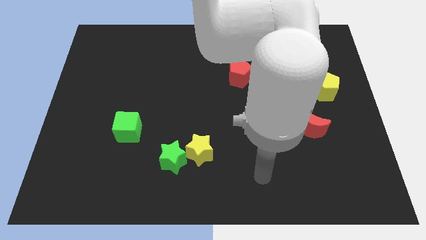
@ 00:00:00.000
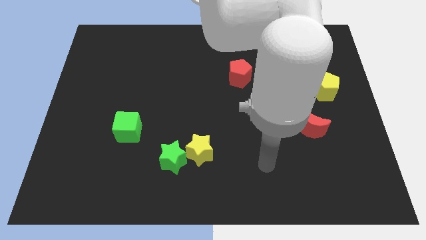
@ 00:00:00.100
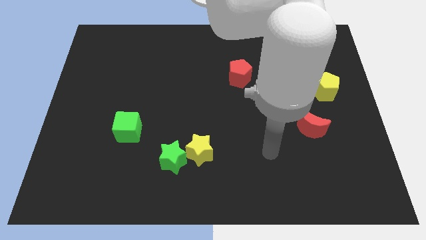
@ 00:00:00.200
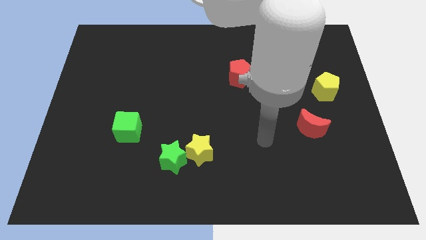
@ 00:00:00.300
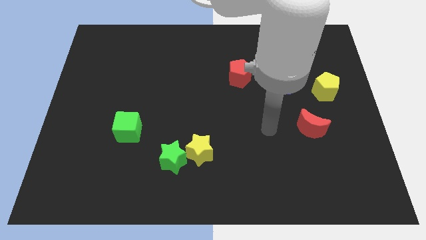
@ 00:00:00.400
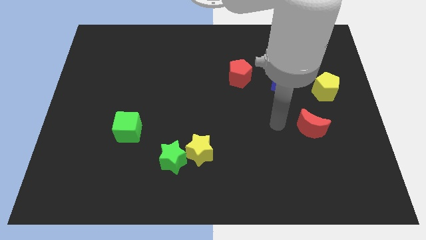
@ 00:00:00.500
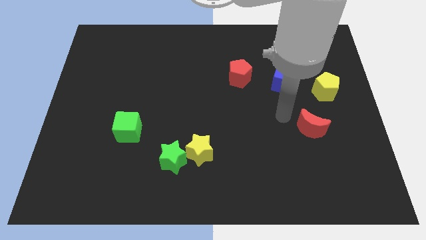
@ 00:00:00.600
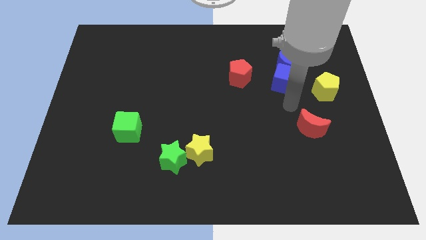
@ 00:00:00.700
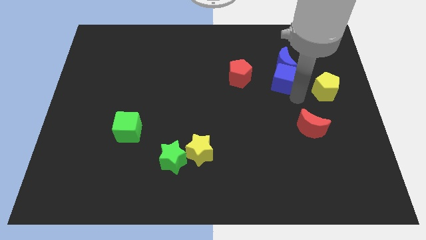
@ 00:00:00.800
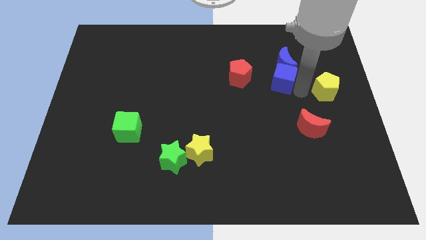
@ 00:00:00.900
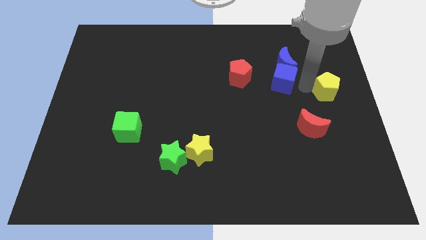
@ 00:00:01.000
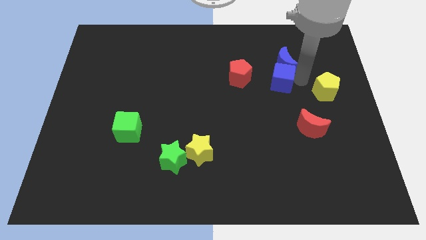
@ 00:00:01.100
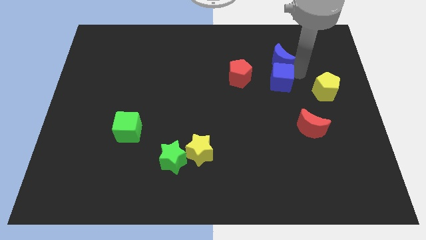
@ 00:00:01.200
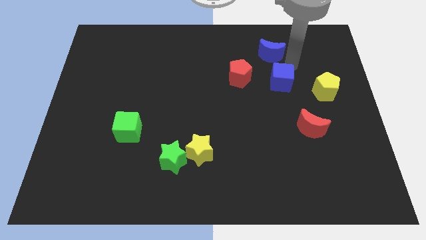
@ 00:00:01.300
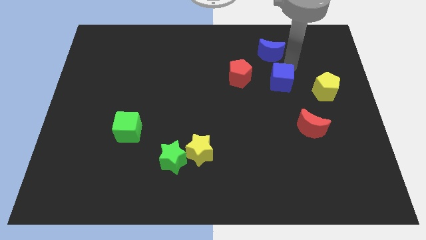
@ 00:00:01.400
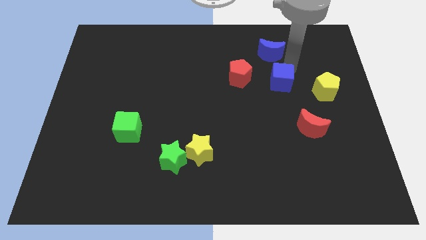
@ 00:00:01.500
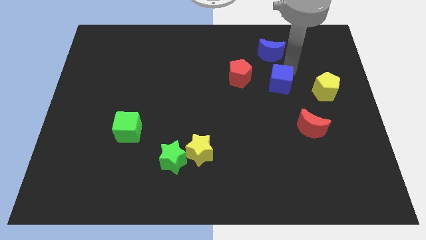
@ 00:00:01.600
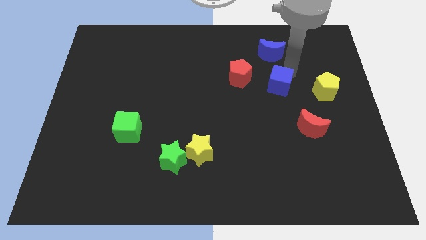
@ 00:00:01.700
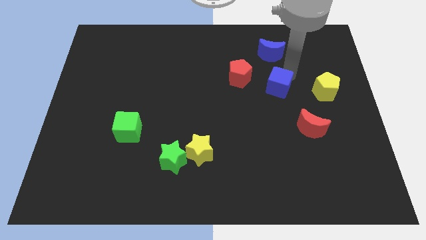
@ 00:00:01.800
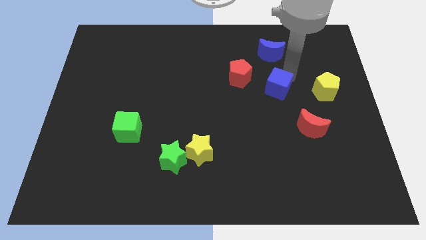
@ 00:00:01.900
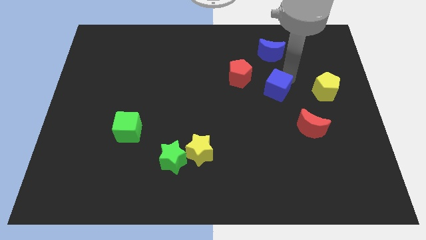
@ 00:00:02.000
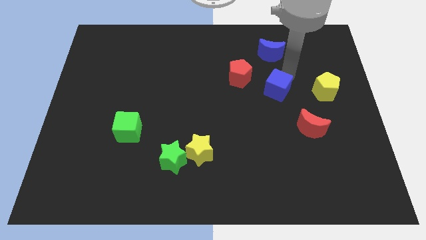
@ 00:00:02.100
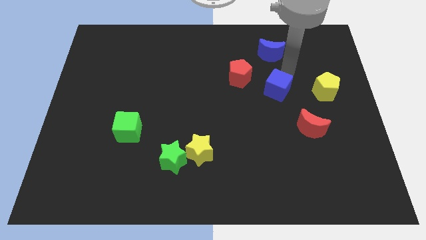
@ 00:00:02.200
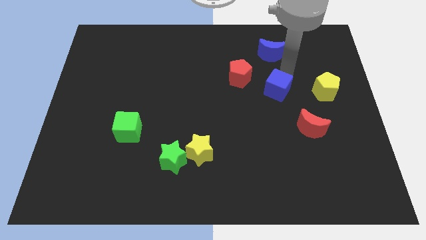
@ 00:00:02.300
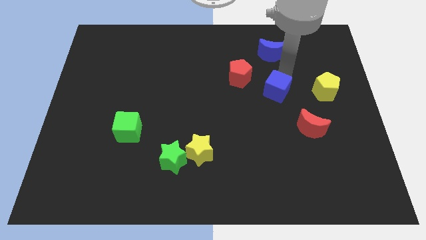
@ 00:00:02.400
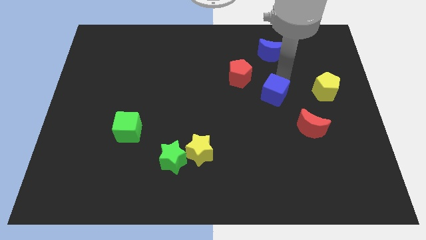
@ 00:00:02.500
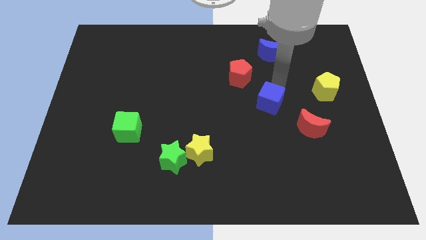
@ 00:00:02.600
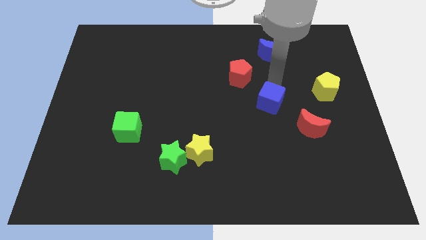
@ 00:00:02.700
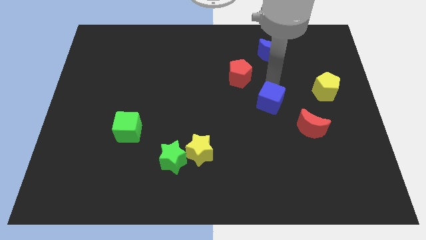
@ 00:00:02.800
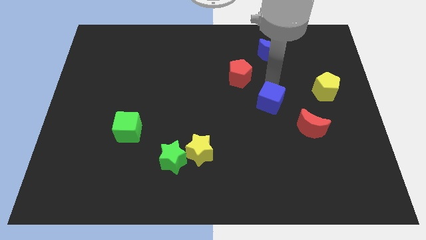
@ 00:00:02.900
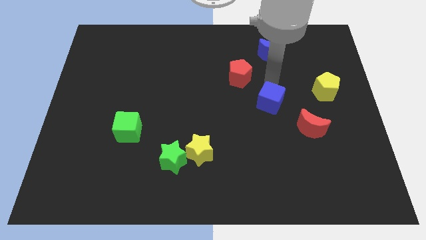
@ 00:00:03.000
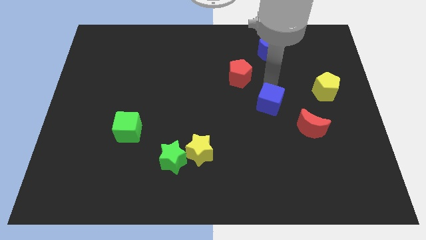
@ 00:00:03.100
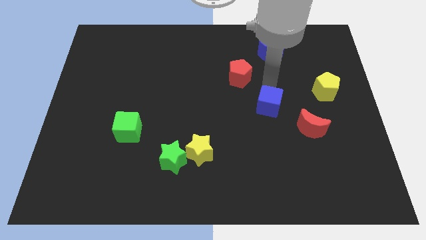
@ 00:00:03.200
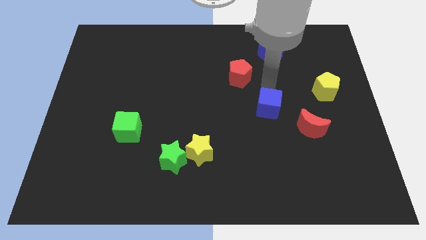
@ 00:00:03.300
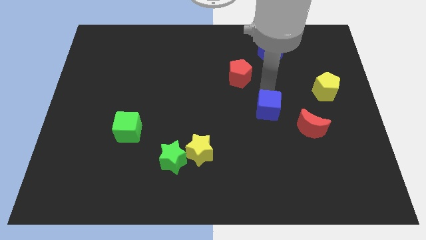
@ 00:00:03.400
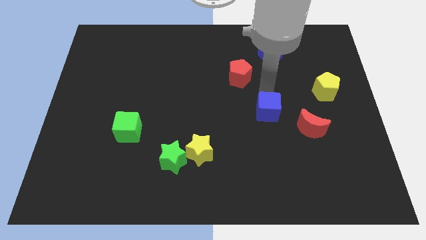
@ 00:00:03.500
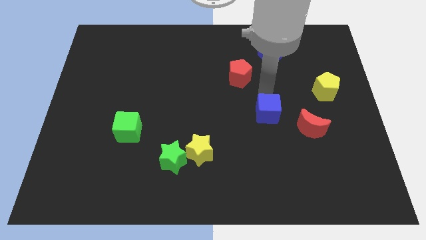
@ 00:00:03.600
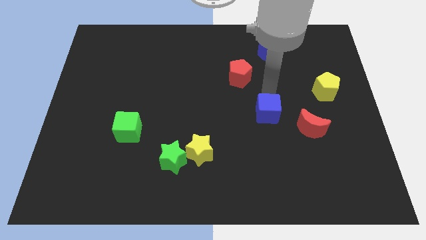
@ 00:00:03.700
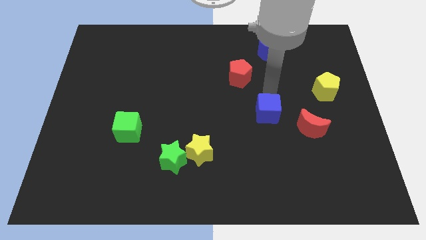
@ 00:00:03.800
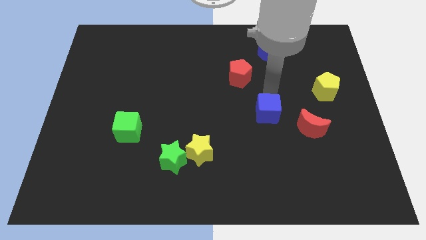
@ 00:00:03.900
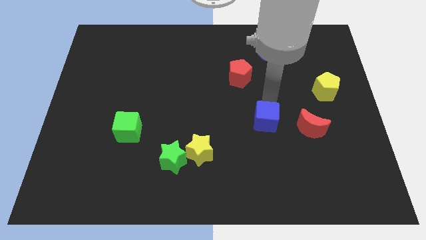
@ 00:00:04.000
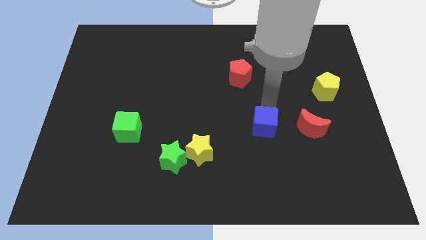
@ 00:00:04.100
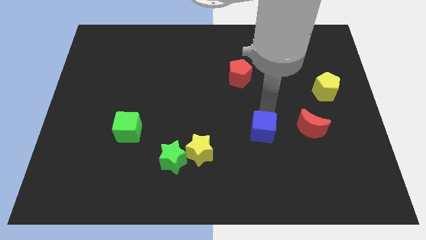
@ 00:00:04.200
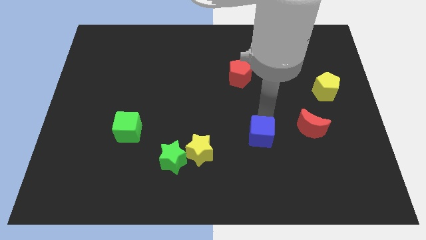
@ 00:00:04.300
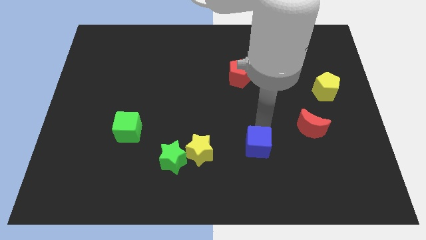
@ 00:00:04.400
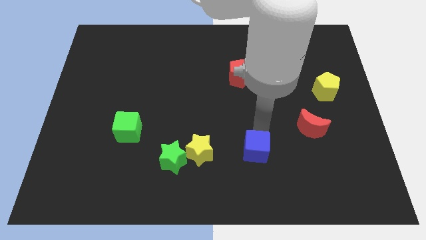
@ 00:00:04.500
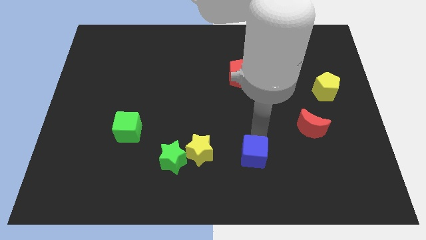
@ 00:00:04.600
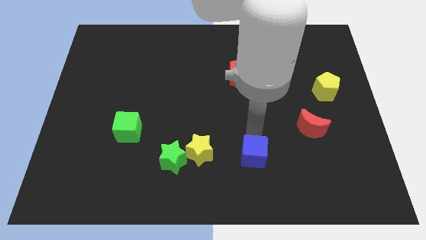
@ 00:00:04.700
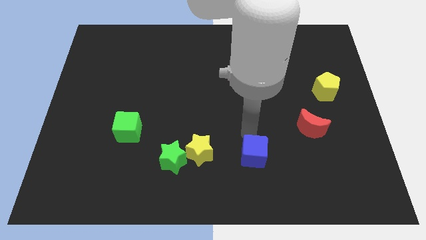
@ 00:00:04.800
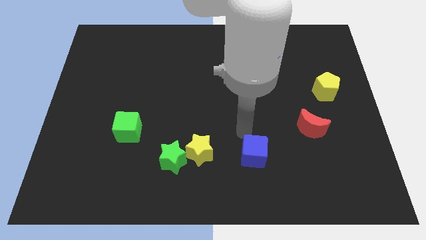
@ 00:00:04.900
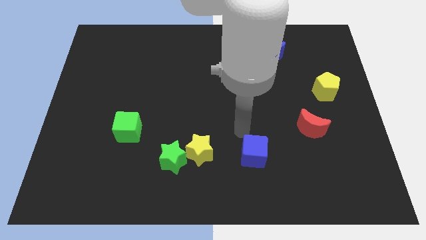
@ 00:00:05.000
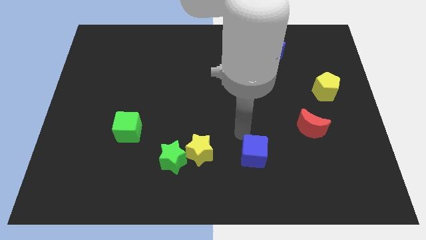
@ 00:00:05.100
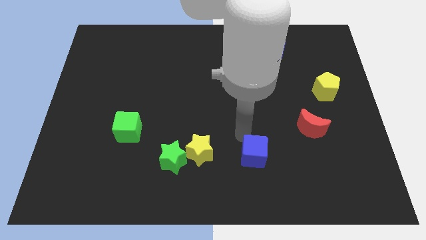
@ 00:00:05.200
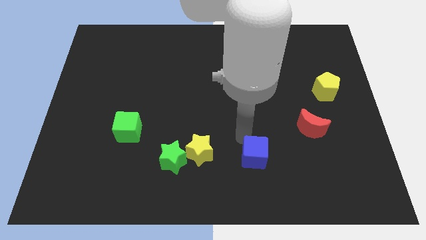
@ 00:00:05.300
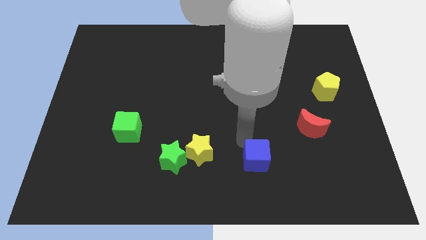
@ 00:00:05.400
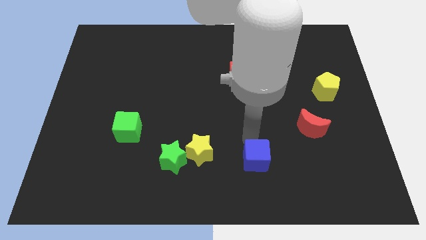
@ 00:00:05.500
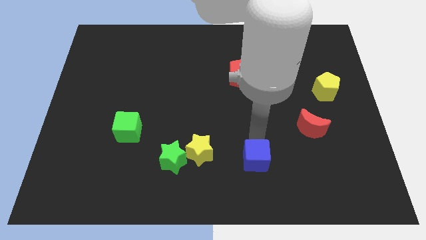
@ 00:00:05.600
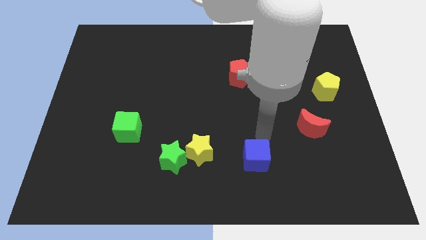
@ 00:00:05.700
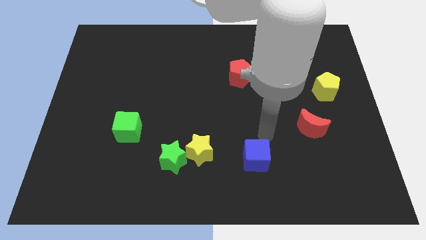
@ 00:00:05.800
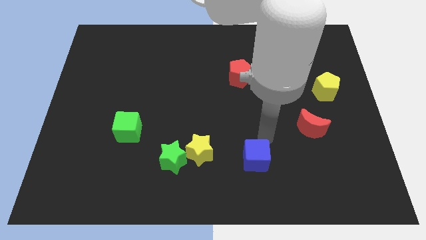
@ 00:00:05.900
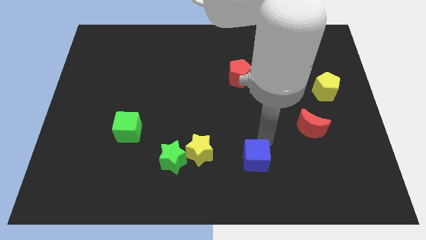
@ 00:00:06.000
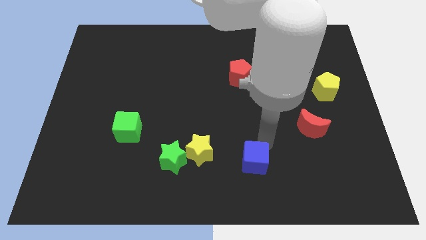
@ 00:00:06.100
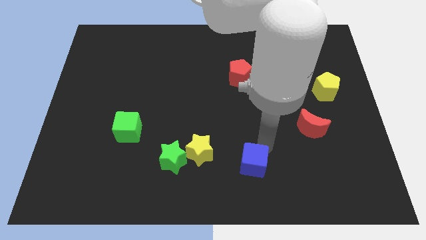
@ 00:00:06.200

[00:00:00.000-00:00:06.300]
push the blue cube to the bottom side

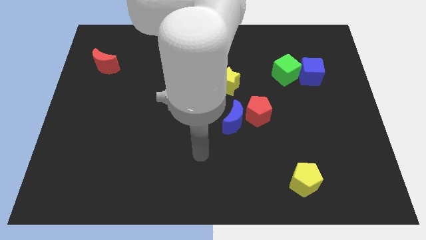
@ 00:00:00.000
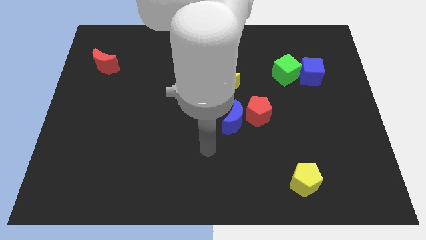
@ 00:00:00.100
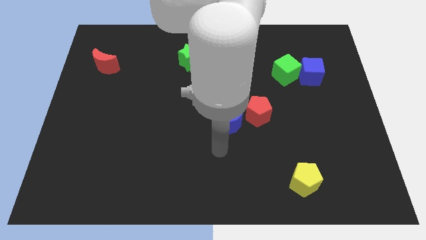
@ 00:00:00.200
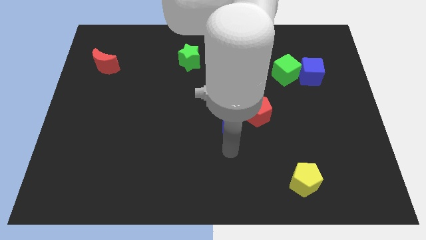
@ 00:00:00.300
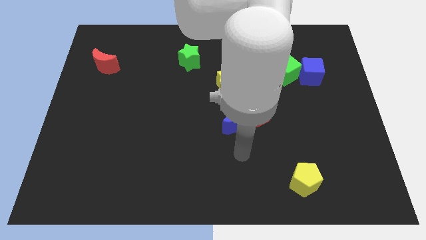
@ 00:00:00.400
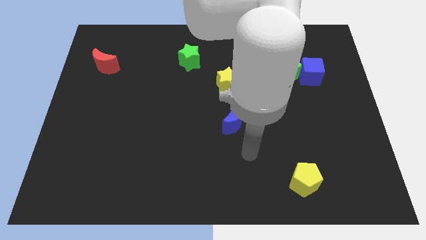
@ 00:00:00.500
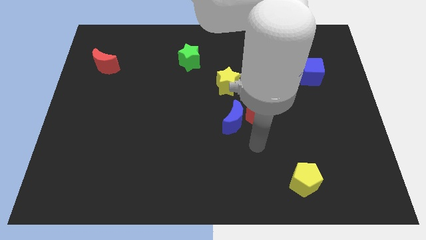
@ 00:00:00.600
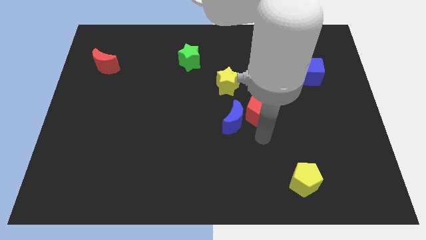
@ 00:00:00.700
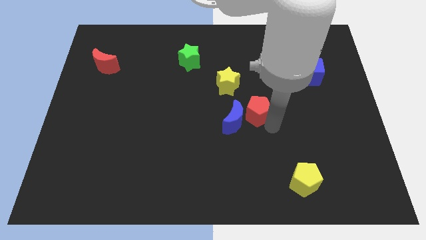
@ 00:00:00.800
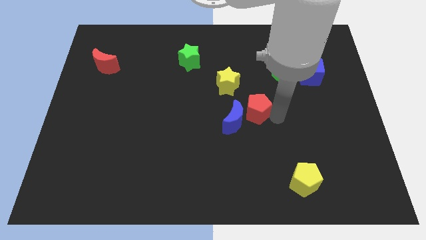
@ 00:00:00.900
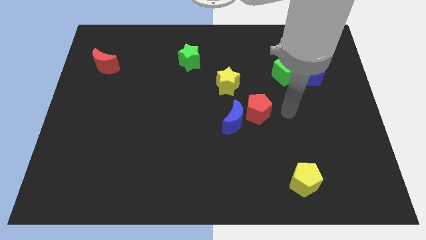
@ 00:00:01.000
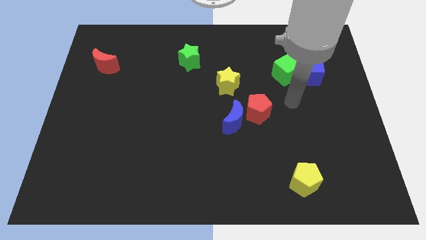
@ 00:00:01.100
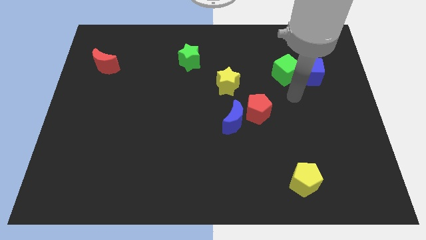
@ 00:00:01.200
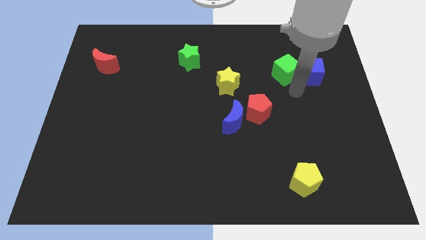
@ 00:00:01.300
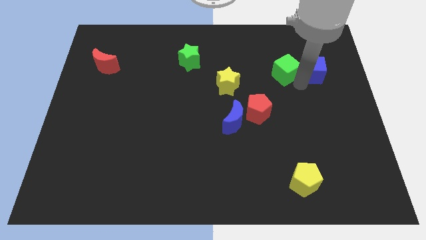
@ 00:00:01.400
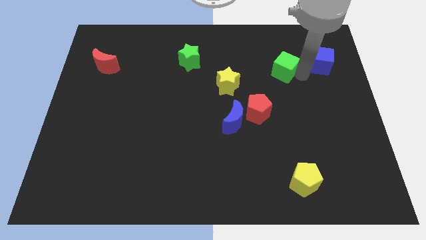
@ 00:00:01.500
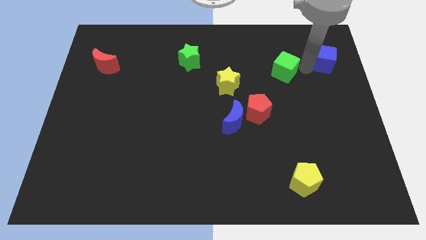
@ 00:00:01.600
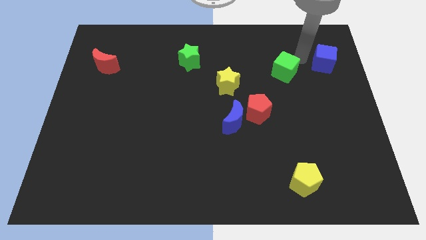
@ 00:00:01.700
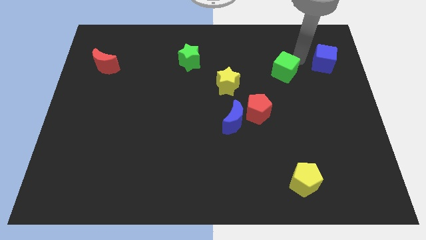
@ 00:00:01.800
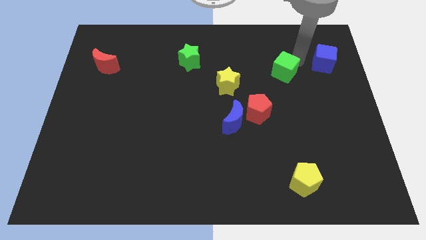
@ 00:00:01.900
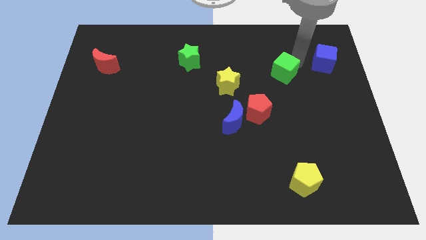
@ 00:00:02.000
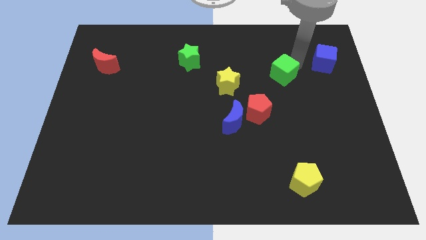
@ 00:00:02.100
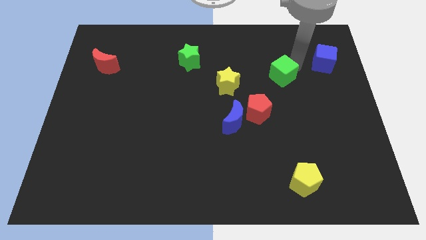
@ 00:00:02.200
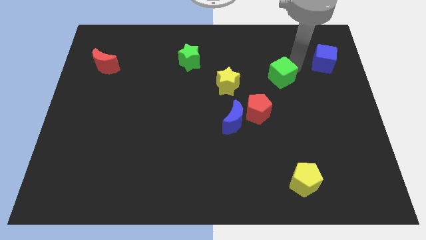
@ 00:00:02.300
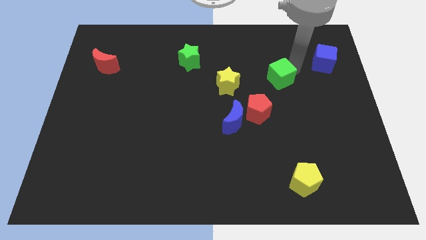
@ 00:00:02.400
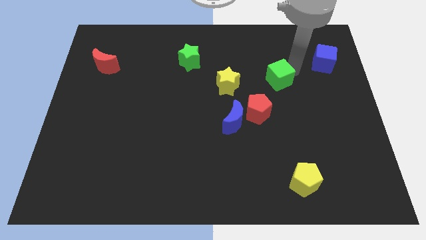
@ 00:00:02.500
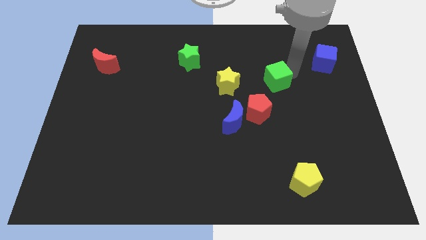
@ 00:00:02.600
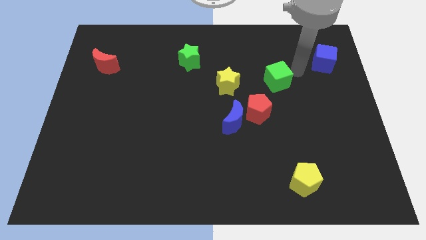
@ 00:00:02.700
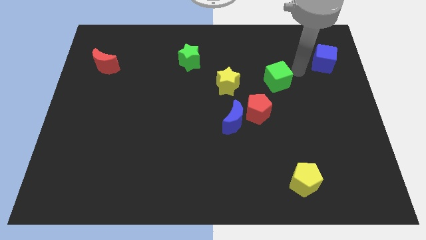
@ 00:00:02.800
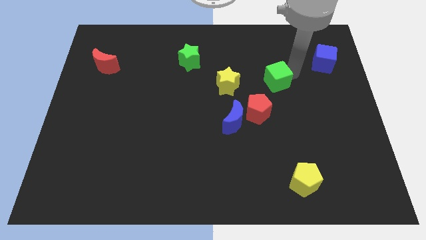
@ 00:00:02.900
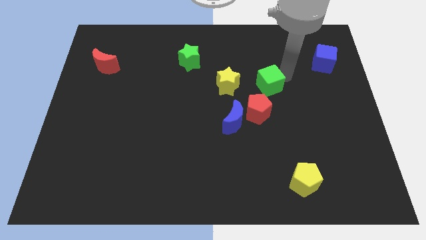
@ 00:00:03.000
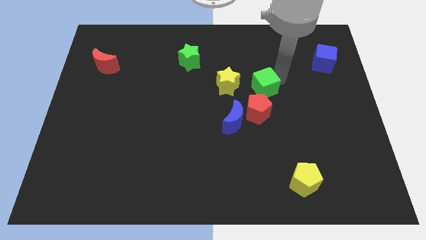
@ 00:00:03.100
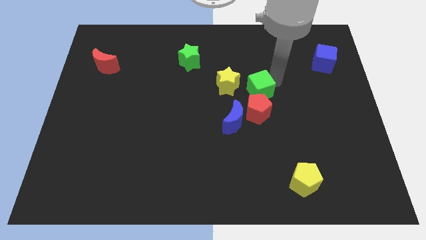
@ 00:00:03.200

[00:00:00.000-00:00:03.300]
put the green cube to the middle
